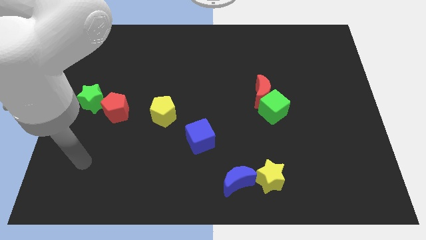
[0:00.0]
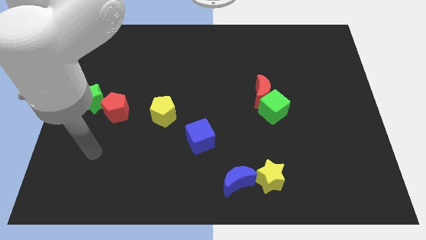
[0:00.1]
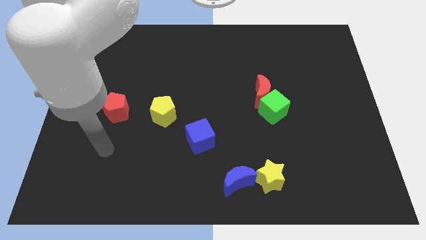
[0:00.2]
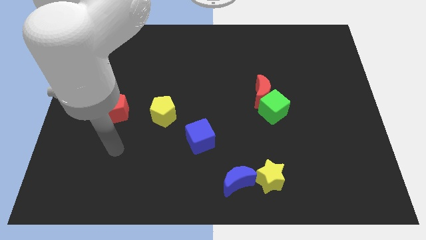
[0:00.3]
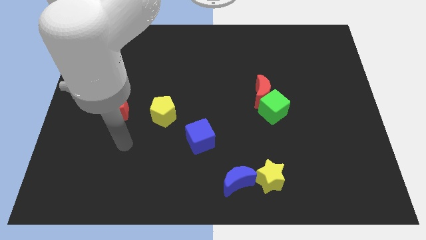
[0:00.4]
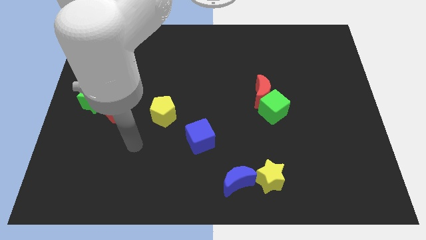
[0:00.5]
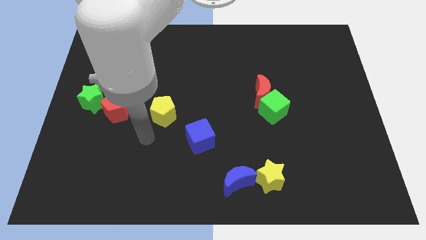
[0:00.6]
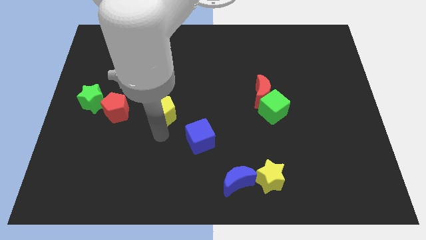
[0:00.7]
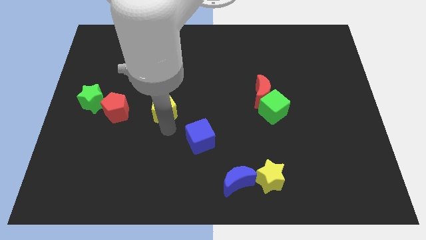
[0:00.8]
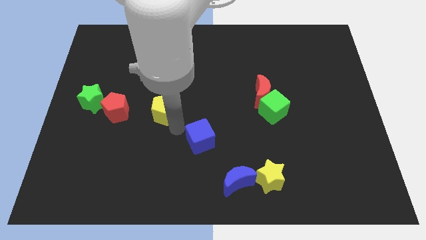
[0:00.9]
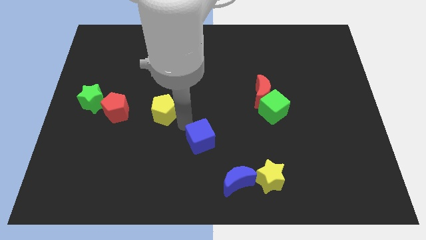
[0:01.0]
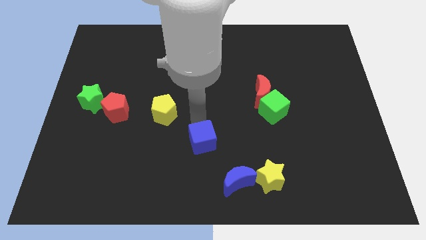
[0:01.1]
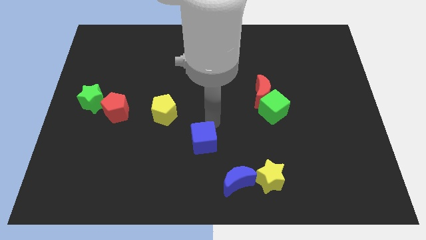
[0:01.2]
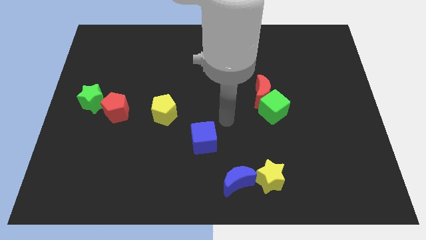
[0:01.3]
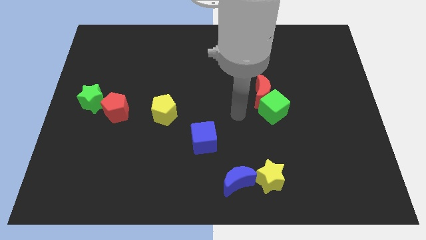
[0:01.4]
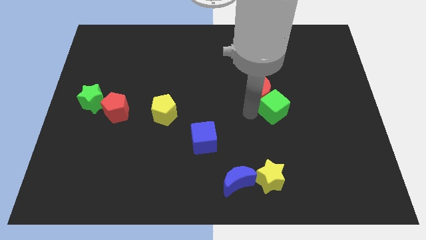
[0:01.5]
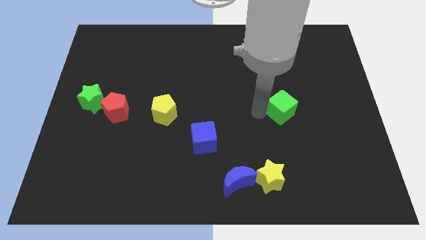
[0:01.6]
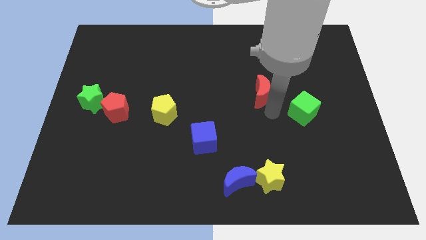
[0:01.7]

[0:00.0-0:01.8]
move the red moon away from the green cube

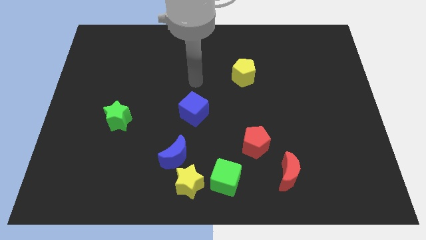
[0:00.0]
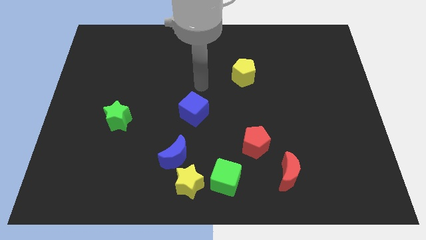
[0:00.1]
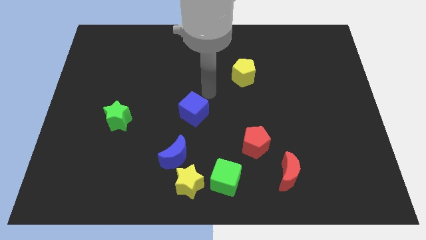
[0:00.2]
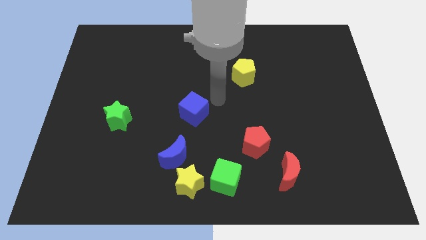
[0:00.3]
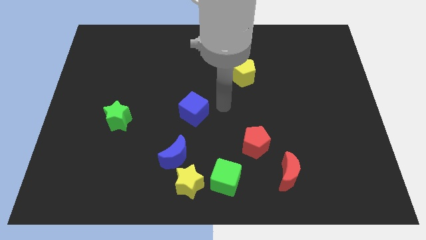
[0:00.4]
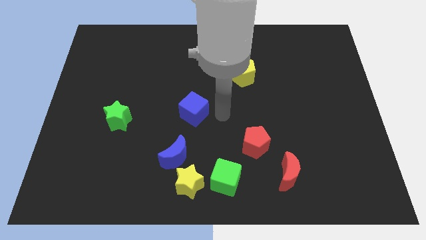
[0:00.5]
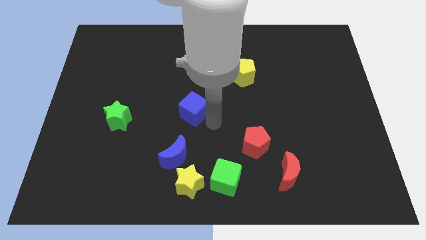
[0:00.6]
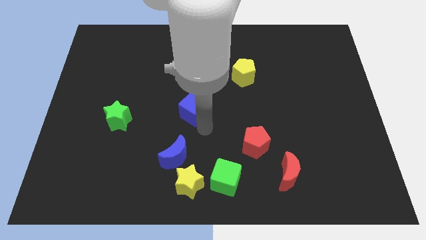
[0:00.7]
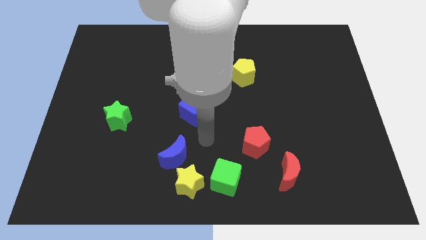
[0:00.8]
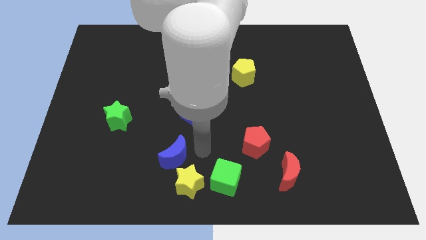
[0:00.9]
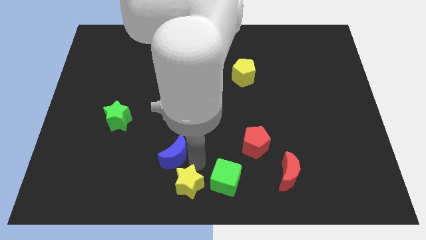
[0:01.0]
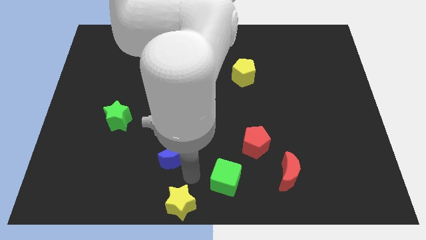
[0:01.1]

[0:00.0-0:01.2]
move the blue moon away from the yellow star

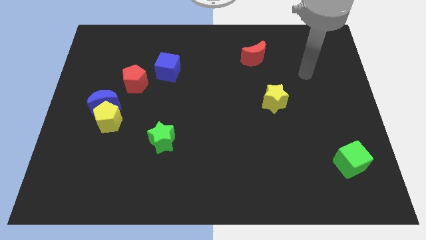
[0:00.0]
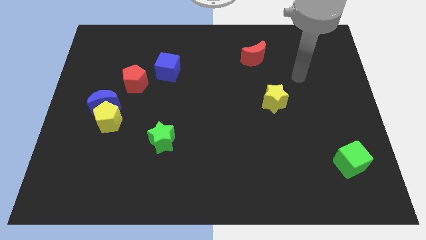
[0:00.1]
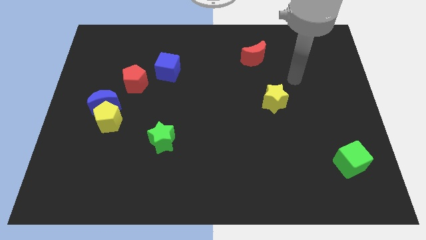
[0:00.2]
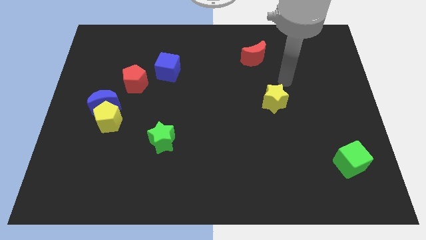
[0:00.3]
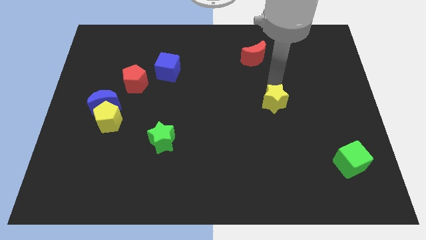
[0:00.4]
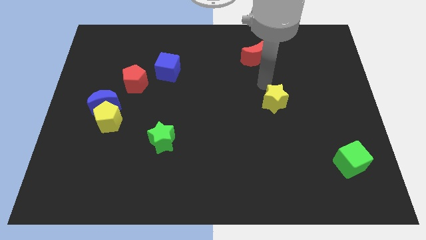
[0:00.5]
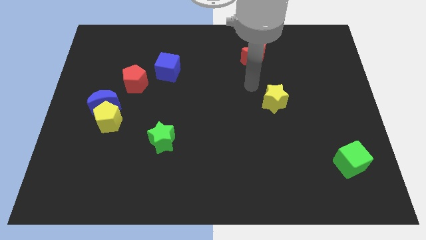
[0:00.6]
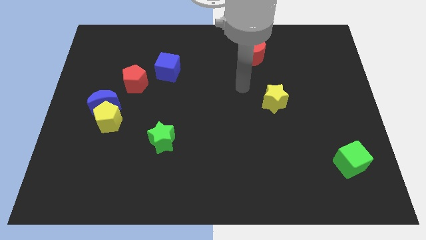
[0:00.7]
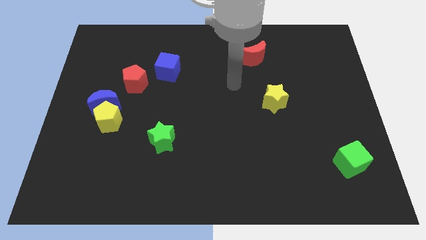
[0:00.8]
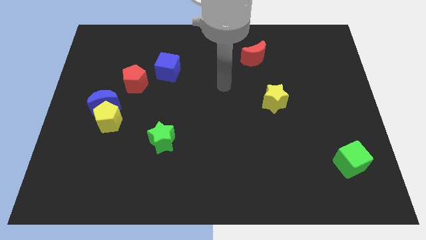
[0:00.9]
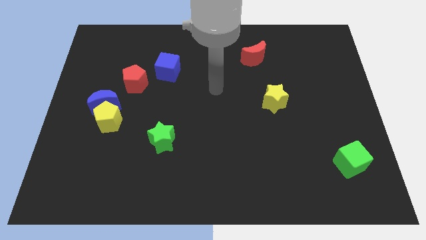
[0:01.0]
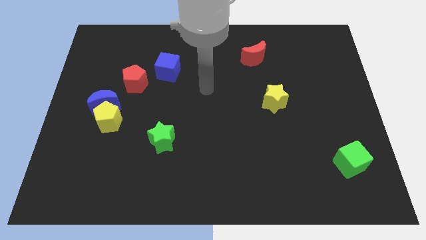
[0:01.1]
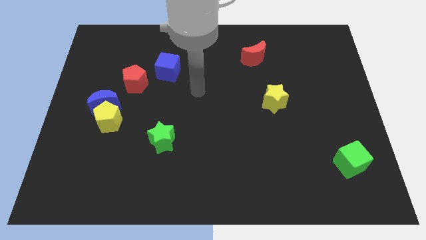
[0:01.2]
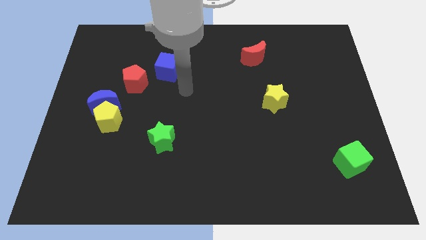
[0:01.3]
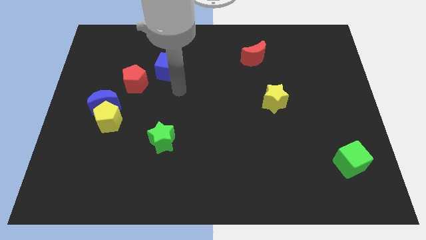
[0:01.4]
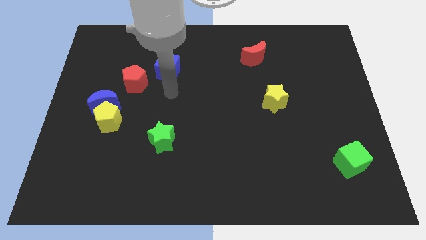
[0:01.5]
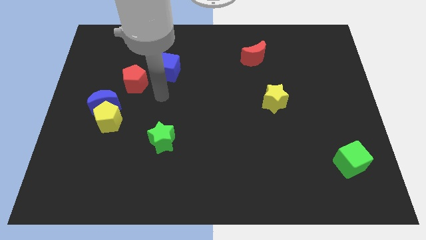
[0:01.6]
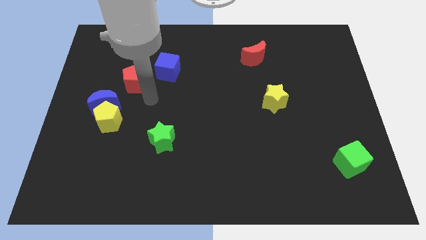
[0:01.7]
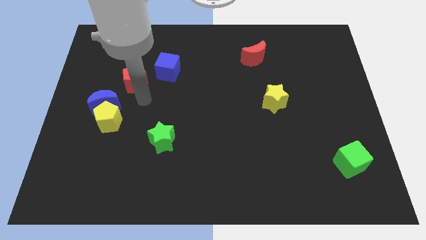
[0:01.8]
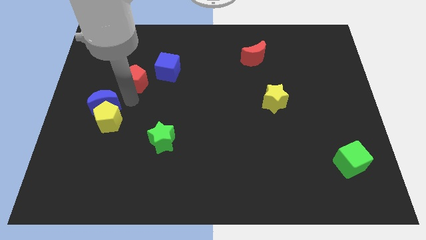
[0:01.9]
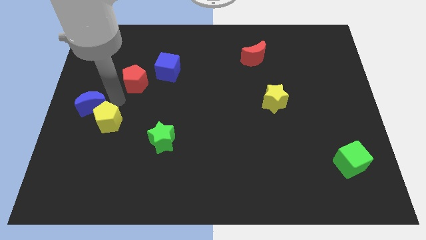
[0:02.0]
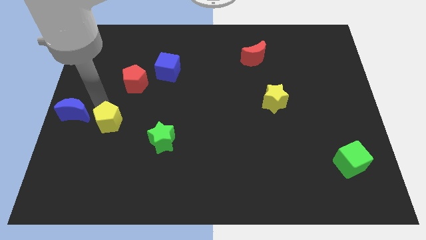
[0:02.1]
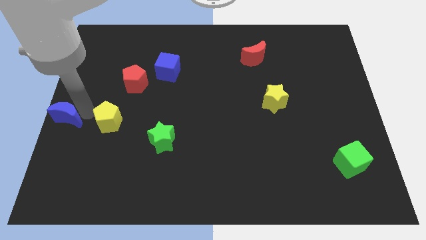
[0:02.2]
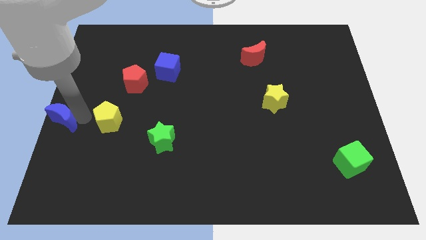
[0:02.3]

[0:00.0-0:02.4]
pull the yellow pentagon apart from the blue moon

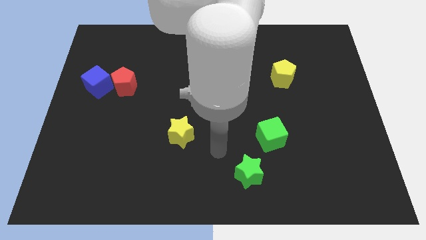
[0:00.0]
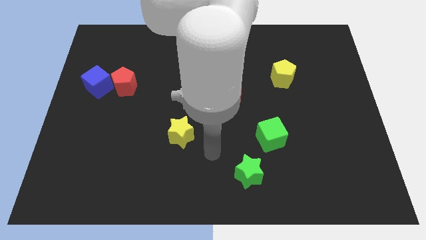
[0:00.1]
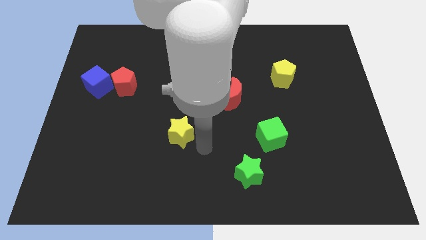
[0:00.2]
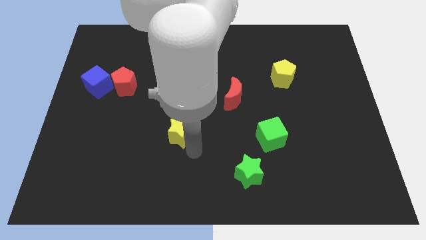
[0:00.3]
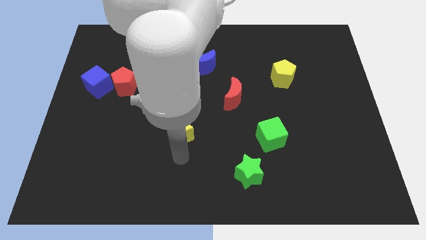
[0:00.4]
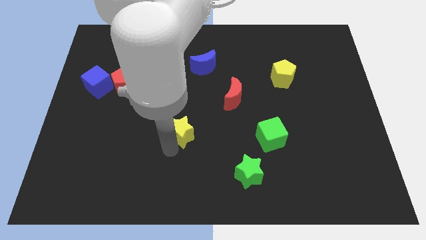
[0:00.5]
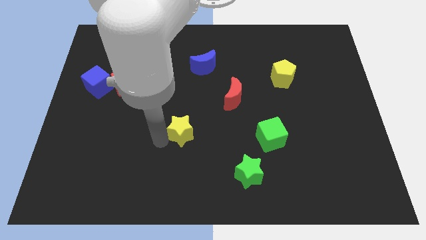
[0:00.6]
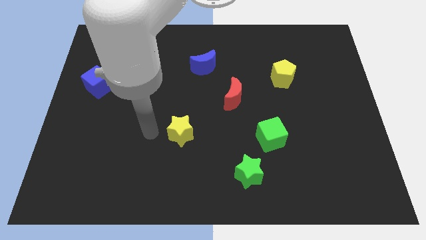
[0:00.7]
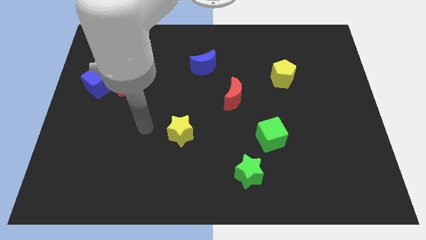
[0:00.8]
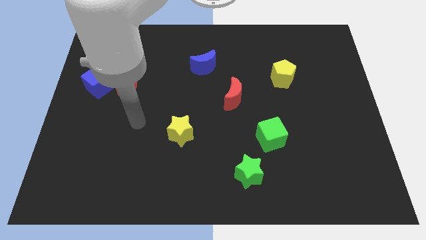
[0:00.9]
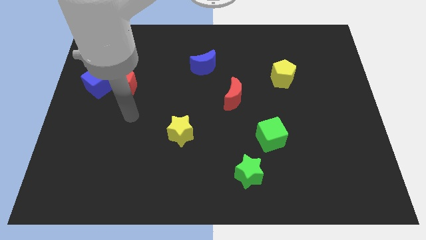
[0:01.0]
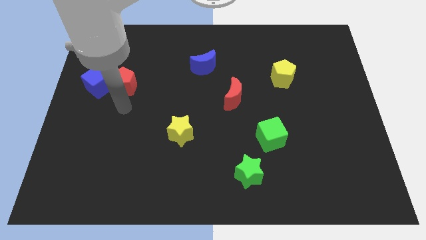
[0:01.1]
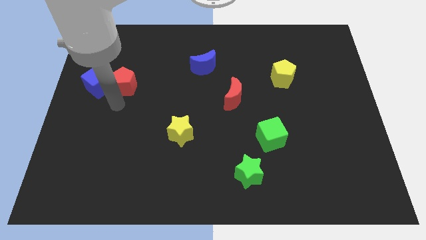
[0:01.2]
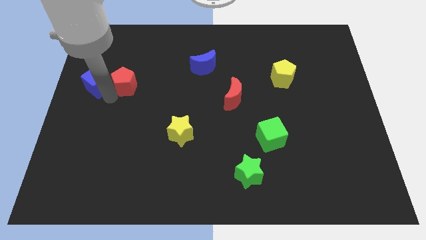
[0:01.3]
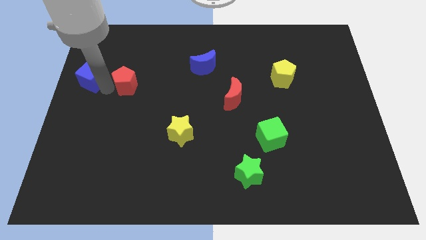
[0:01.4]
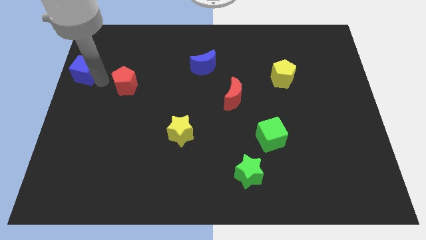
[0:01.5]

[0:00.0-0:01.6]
pull the red pentagon apart from the blue cube

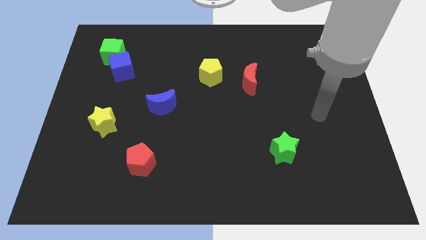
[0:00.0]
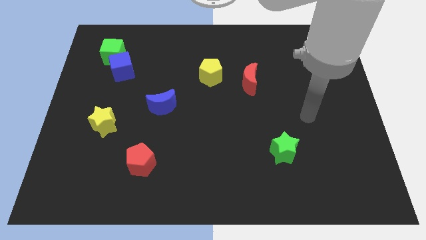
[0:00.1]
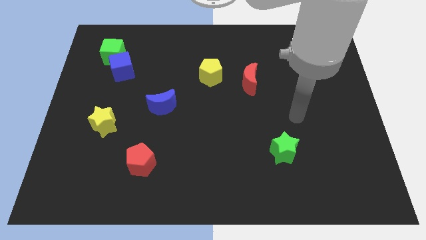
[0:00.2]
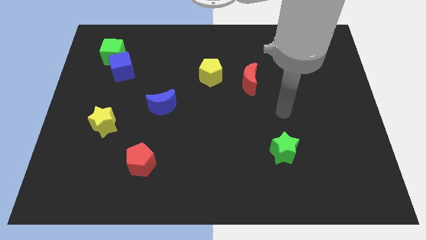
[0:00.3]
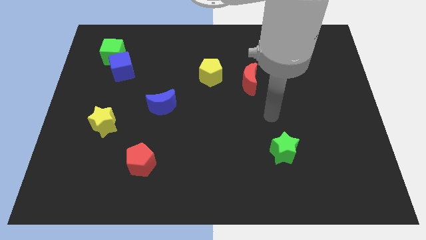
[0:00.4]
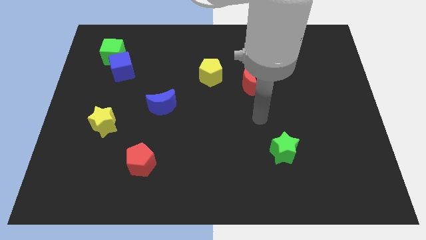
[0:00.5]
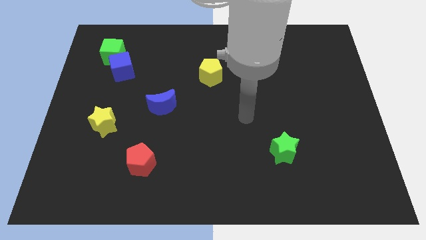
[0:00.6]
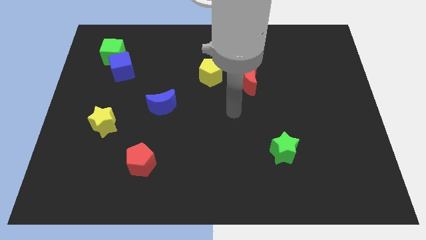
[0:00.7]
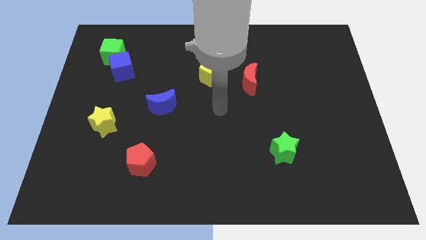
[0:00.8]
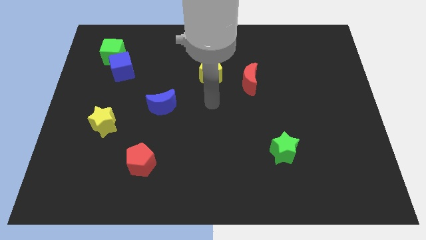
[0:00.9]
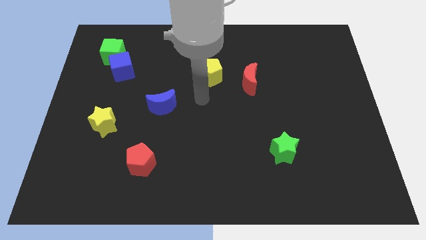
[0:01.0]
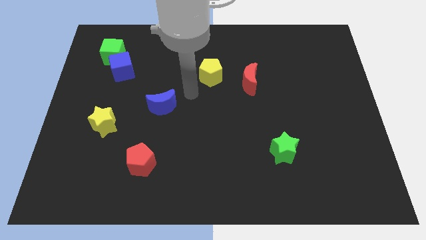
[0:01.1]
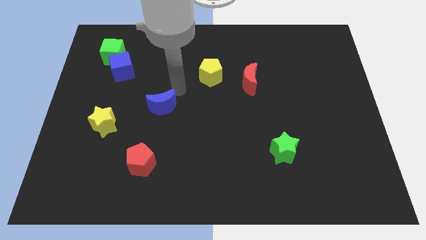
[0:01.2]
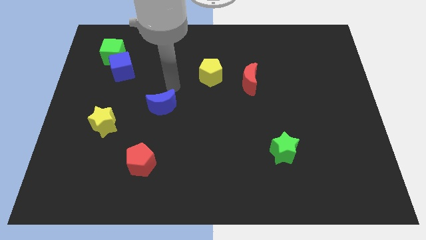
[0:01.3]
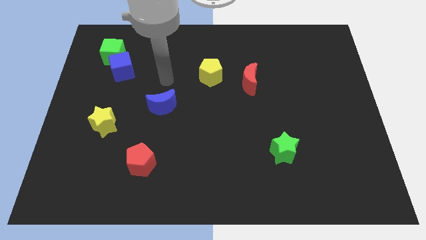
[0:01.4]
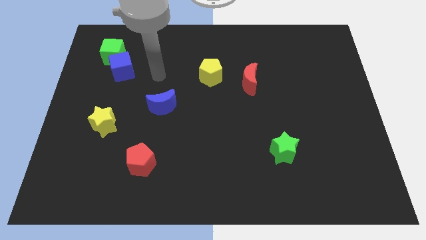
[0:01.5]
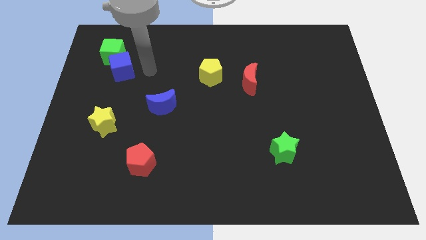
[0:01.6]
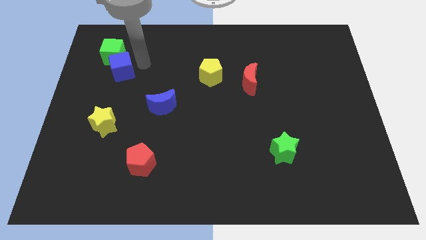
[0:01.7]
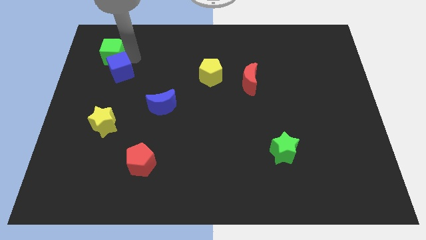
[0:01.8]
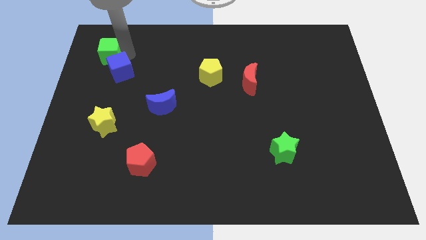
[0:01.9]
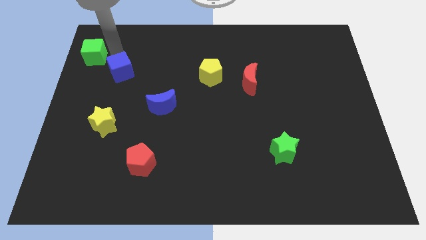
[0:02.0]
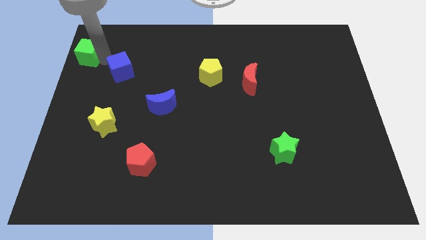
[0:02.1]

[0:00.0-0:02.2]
separate the blue cube from the green cube
